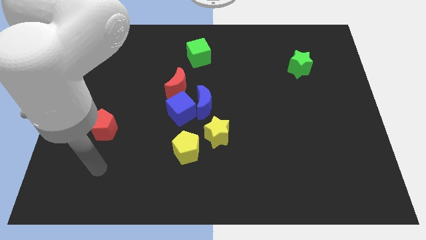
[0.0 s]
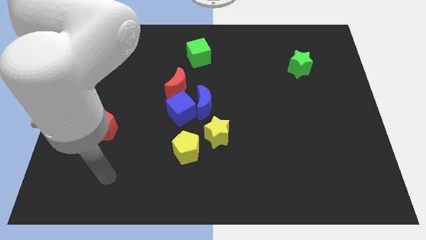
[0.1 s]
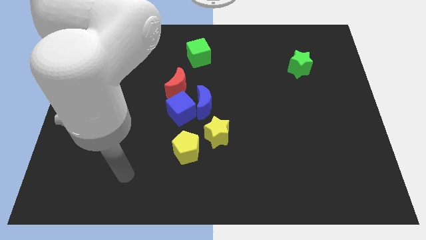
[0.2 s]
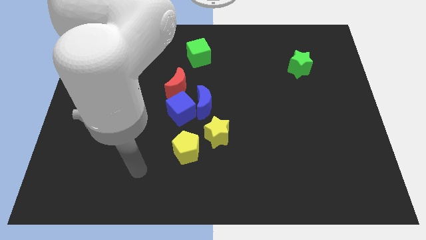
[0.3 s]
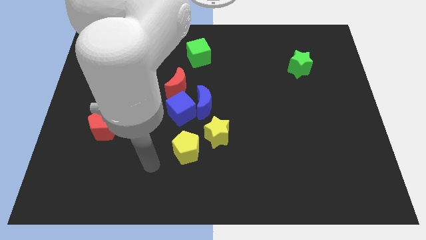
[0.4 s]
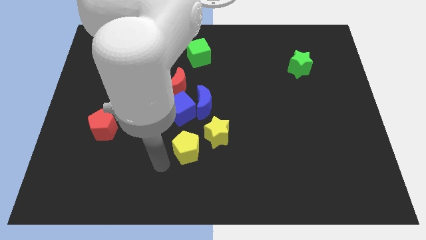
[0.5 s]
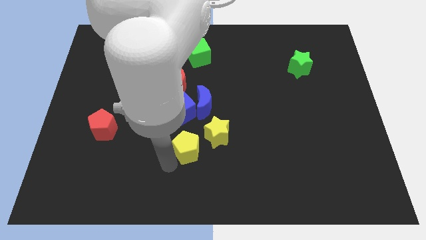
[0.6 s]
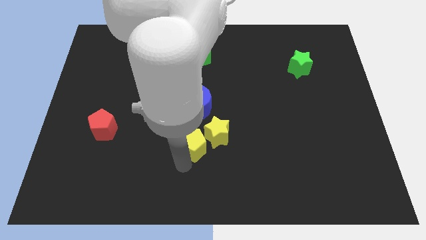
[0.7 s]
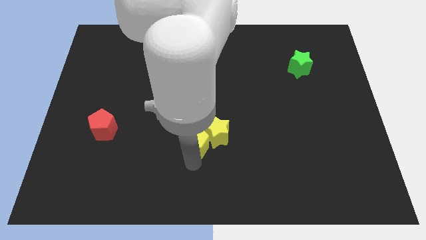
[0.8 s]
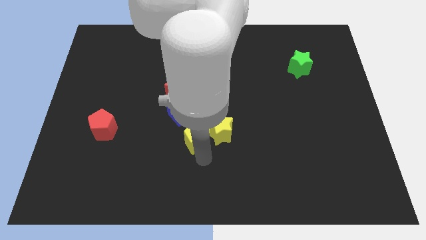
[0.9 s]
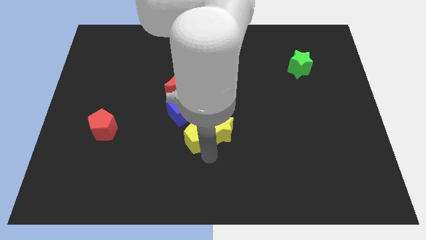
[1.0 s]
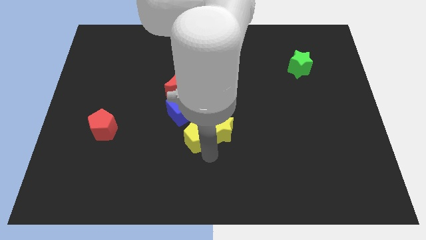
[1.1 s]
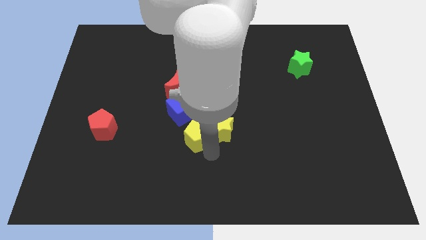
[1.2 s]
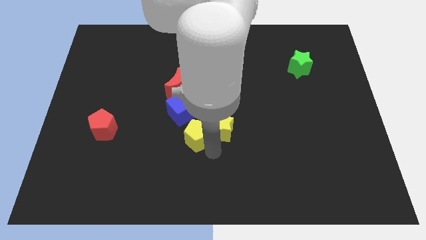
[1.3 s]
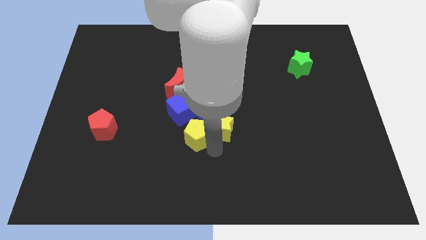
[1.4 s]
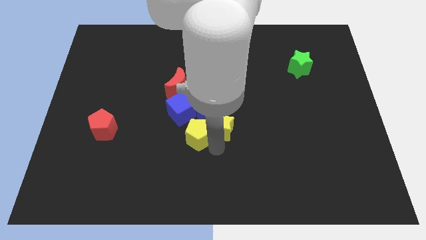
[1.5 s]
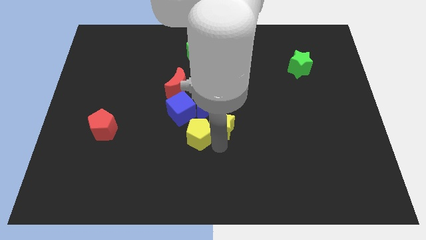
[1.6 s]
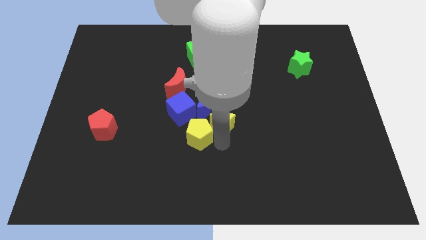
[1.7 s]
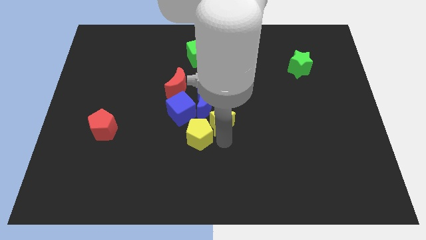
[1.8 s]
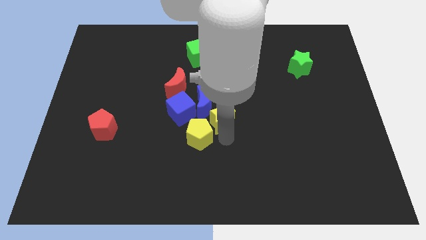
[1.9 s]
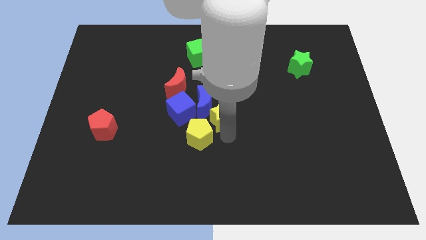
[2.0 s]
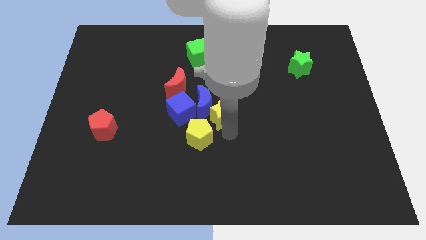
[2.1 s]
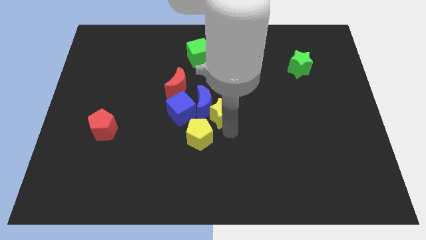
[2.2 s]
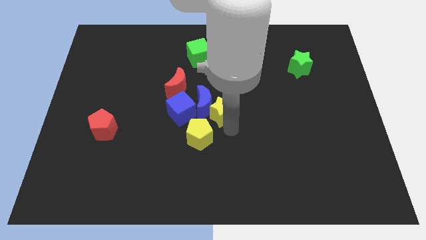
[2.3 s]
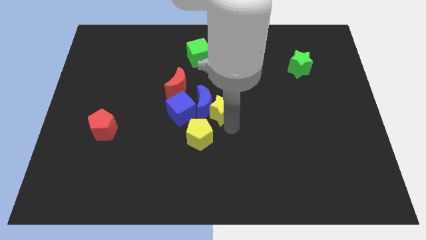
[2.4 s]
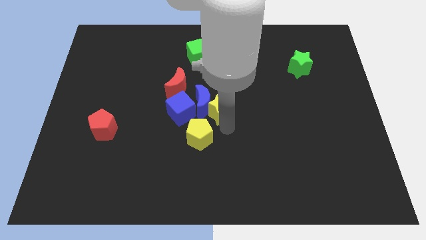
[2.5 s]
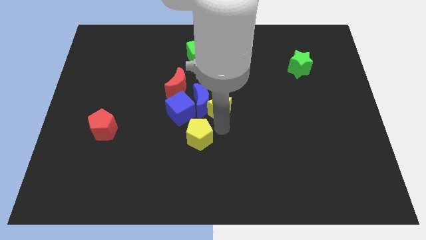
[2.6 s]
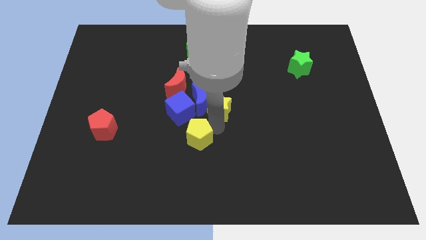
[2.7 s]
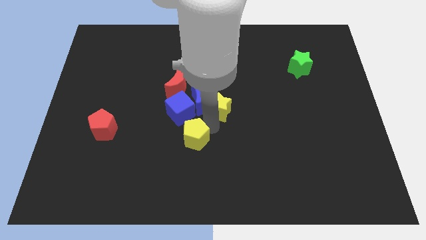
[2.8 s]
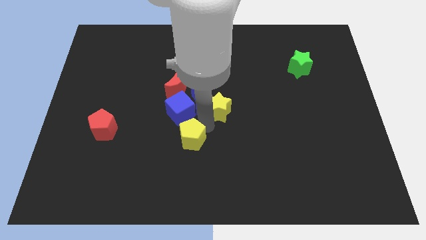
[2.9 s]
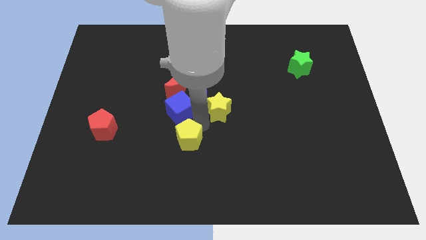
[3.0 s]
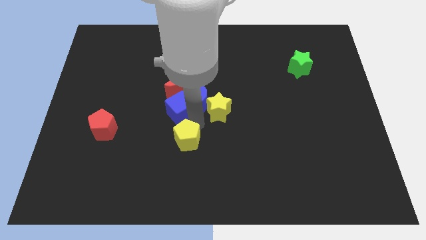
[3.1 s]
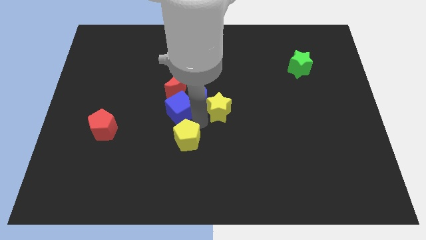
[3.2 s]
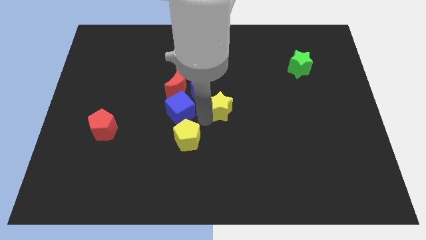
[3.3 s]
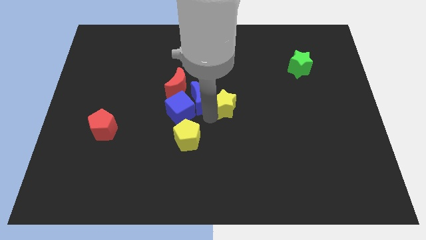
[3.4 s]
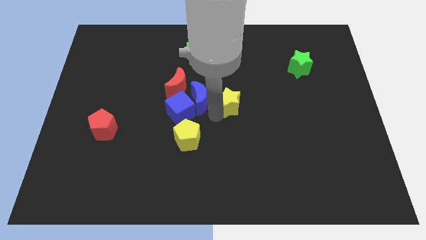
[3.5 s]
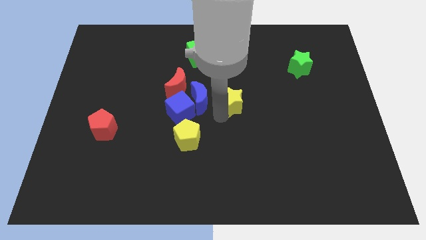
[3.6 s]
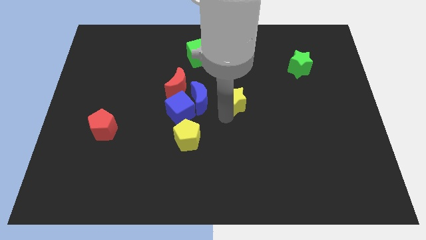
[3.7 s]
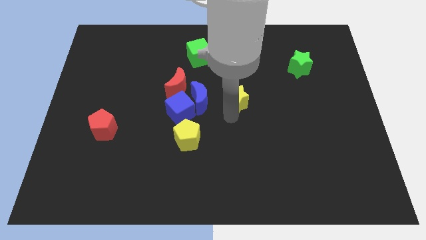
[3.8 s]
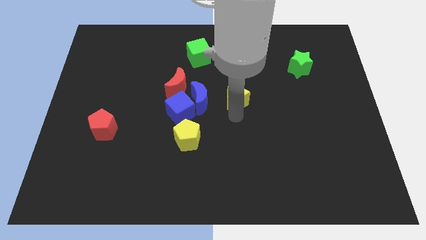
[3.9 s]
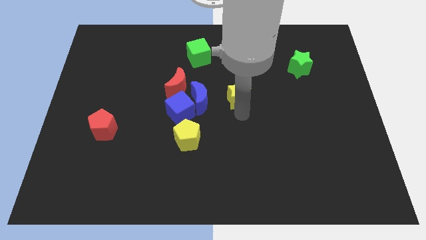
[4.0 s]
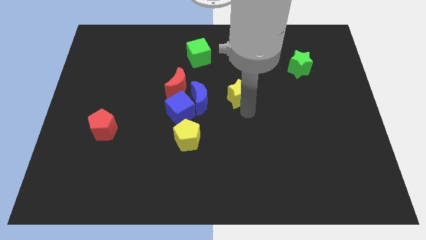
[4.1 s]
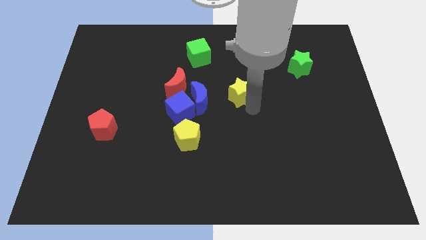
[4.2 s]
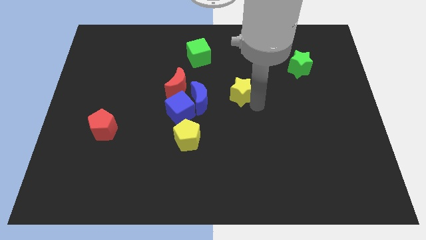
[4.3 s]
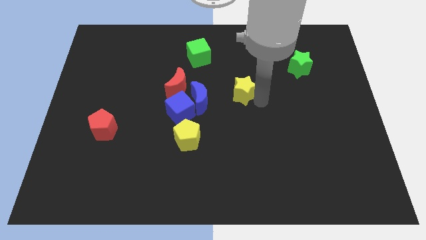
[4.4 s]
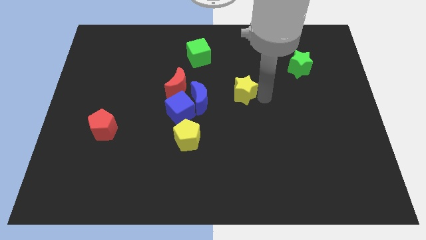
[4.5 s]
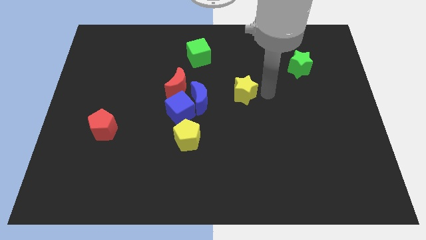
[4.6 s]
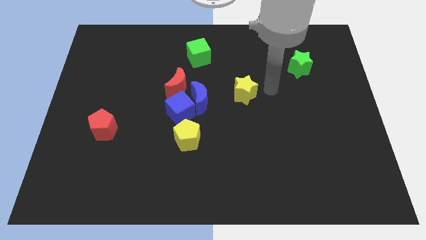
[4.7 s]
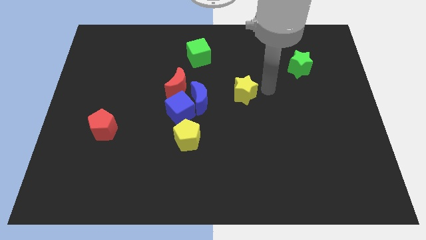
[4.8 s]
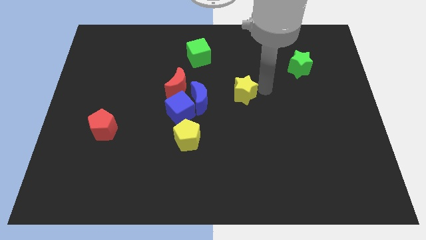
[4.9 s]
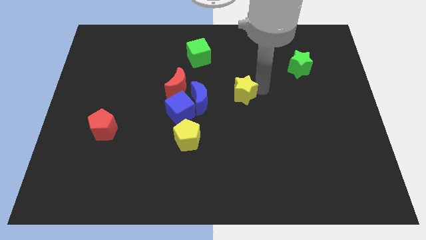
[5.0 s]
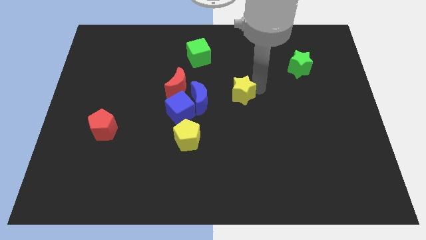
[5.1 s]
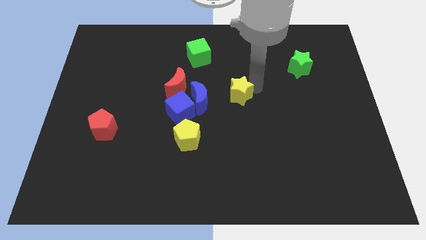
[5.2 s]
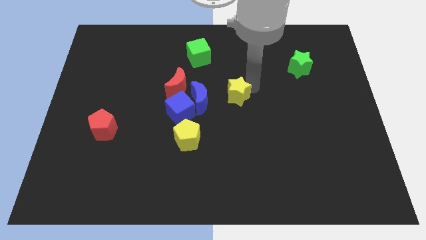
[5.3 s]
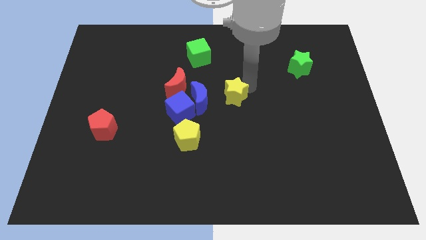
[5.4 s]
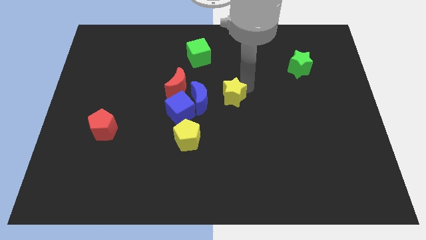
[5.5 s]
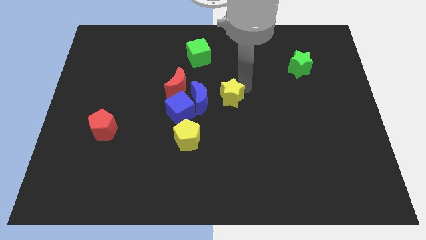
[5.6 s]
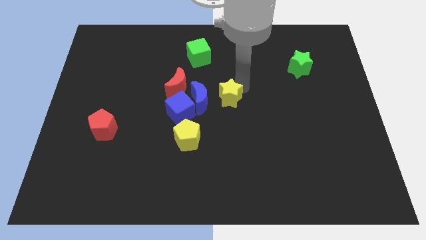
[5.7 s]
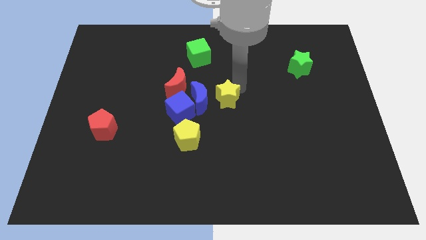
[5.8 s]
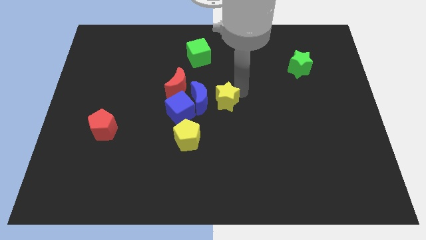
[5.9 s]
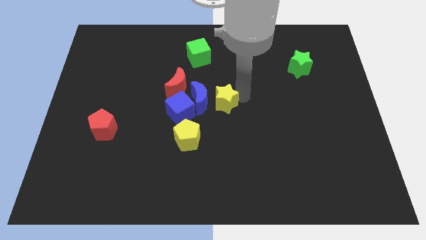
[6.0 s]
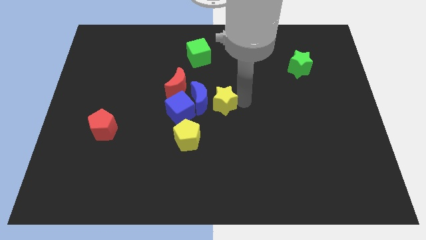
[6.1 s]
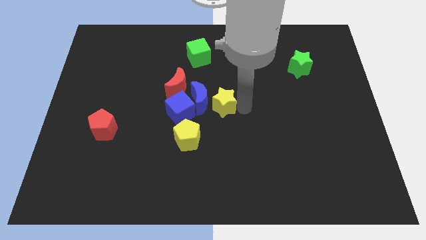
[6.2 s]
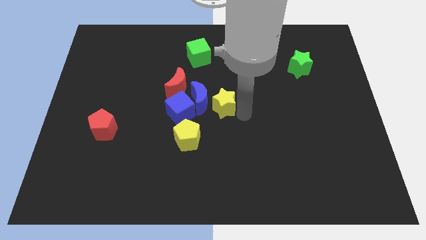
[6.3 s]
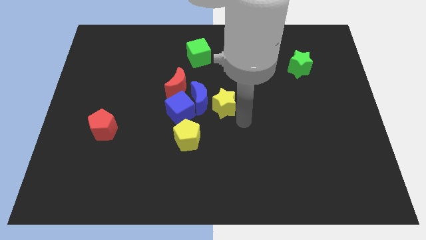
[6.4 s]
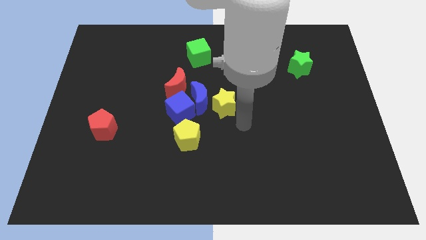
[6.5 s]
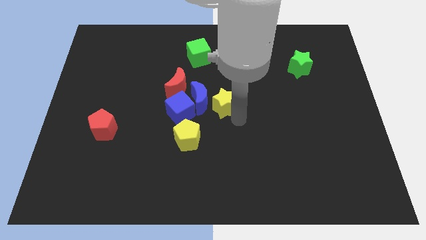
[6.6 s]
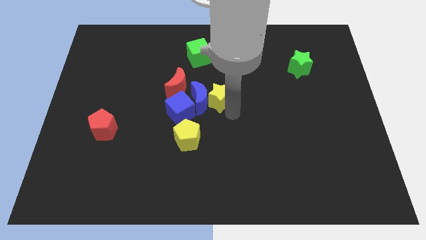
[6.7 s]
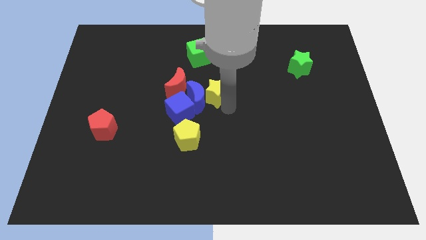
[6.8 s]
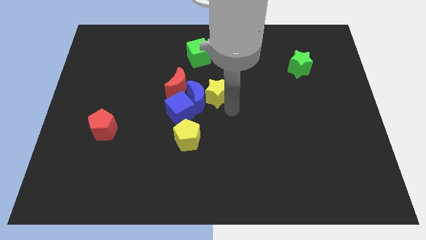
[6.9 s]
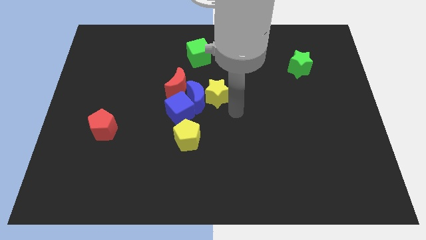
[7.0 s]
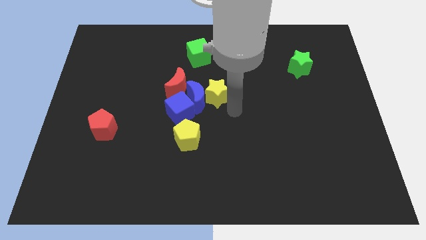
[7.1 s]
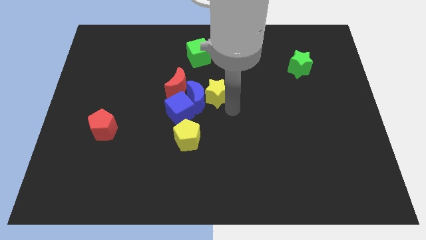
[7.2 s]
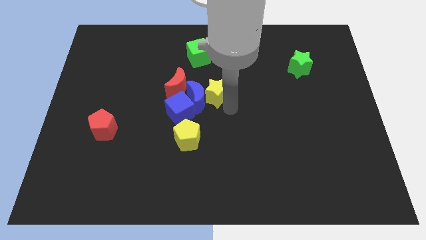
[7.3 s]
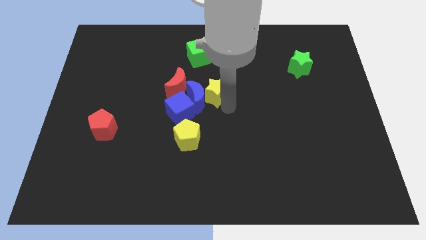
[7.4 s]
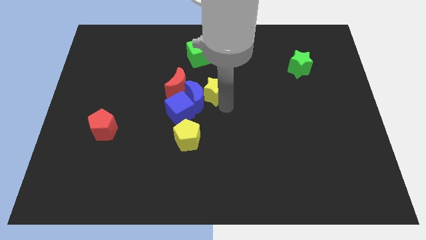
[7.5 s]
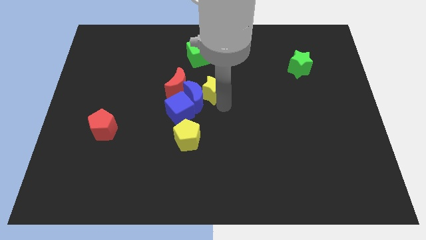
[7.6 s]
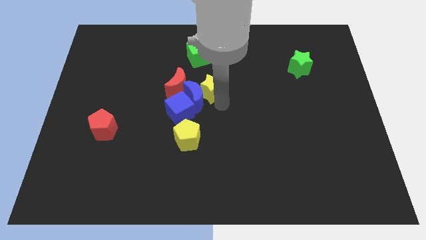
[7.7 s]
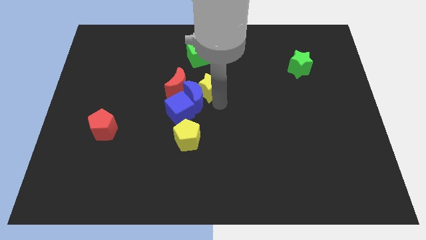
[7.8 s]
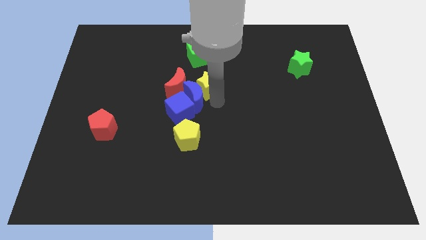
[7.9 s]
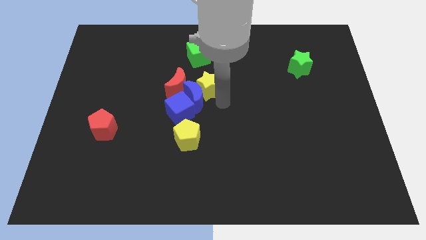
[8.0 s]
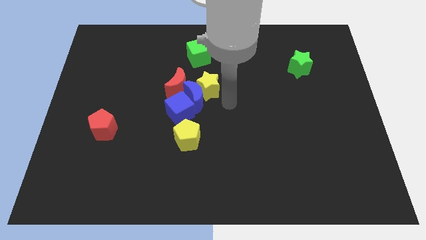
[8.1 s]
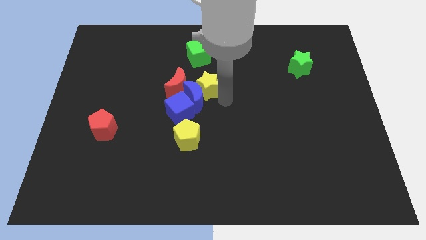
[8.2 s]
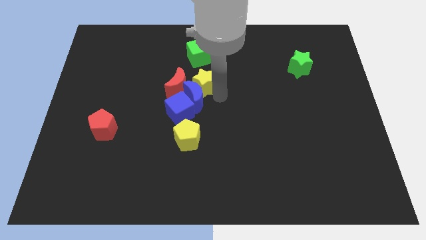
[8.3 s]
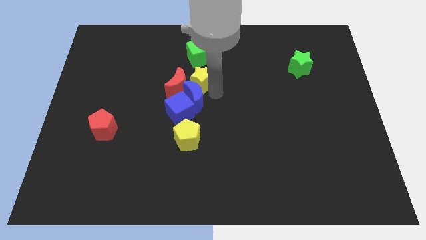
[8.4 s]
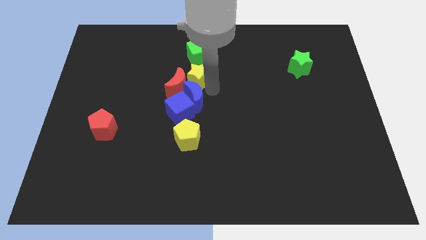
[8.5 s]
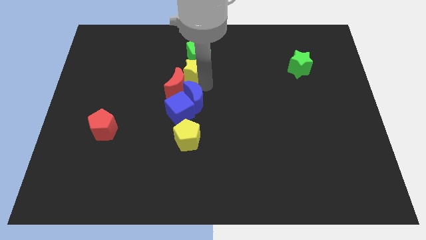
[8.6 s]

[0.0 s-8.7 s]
push the yellow star to the top side of the red moon
